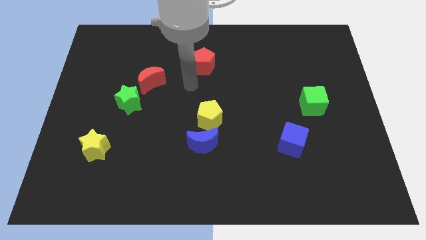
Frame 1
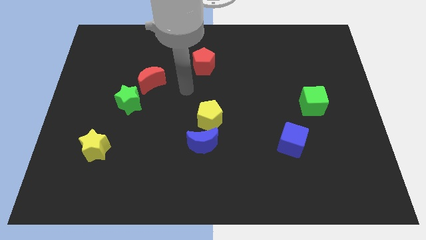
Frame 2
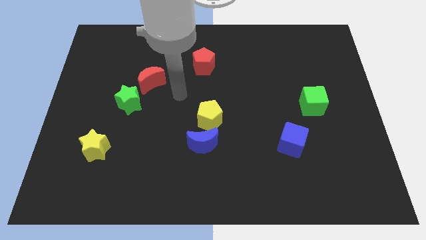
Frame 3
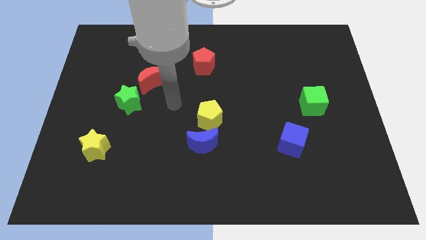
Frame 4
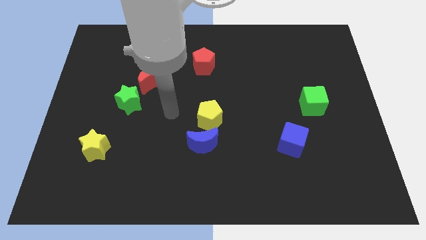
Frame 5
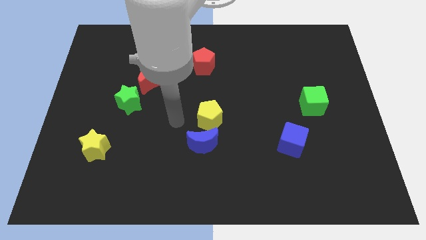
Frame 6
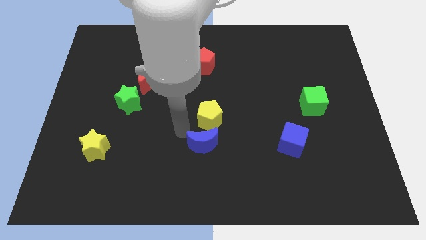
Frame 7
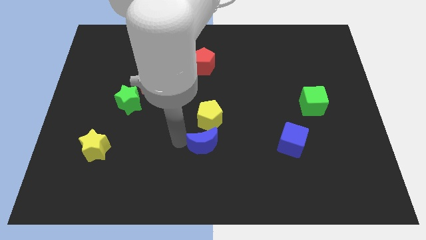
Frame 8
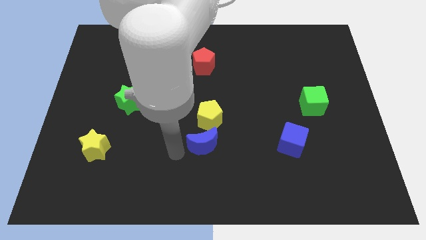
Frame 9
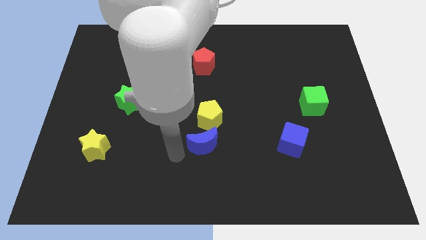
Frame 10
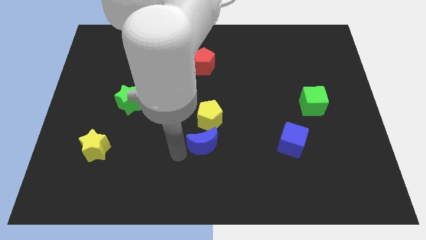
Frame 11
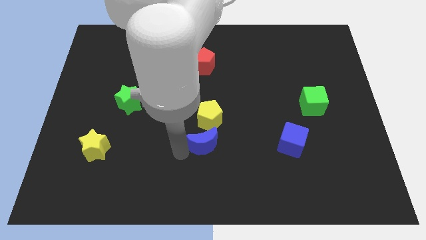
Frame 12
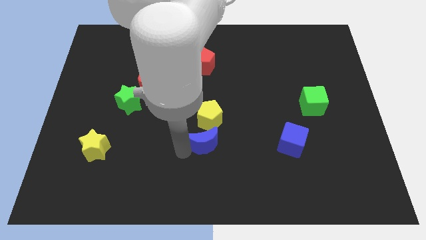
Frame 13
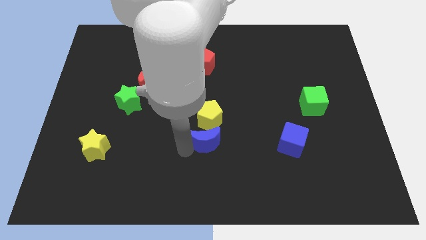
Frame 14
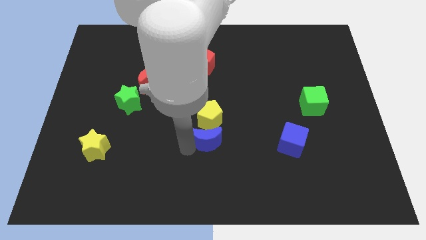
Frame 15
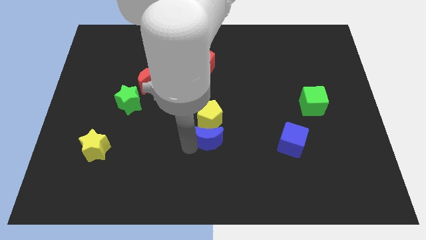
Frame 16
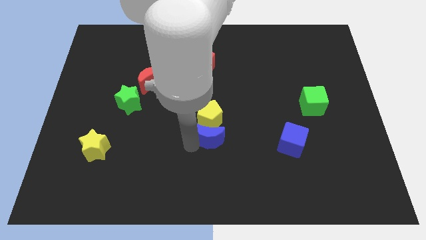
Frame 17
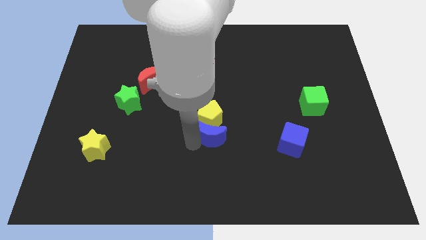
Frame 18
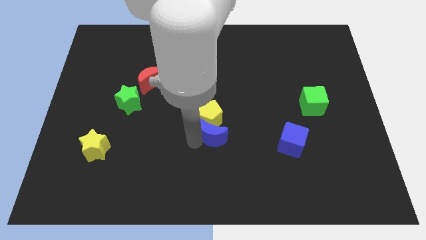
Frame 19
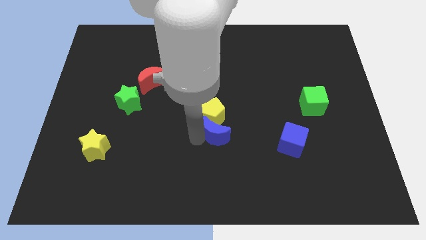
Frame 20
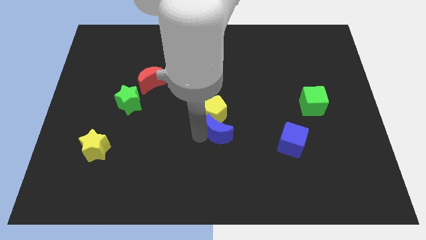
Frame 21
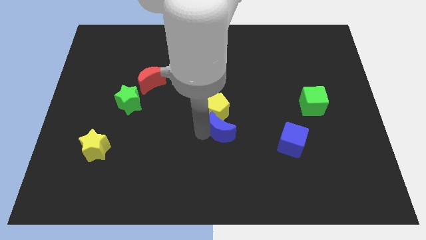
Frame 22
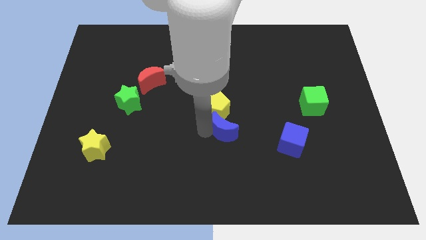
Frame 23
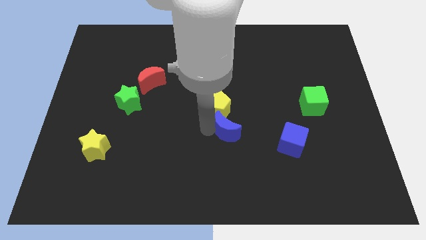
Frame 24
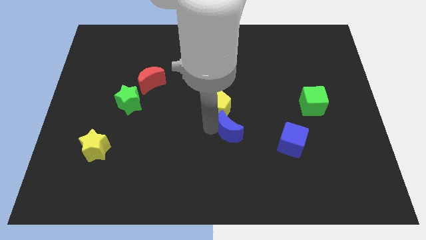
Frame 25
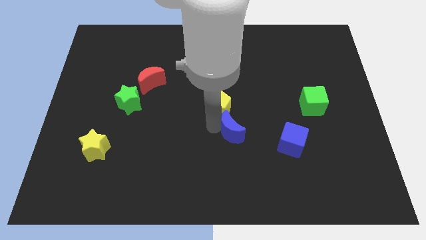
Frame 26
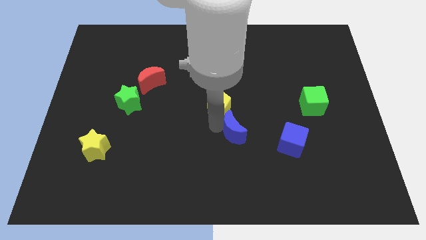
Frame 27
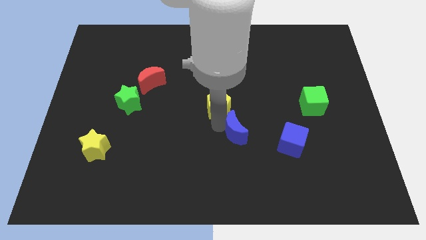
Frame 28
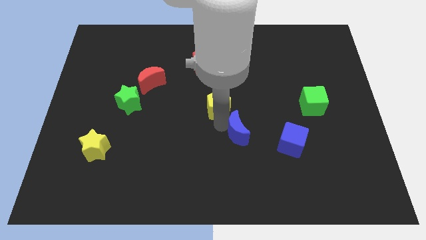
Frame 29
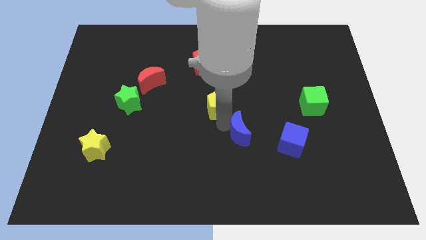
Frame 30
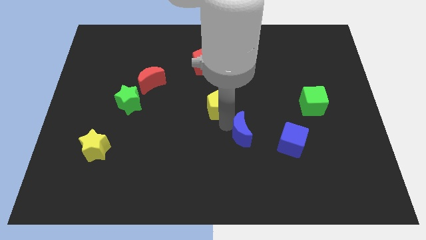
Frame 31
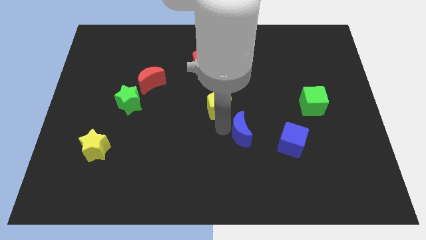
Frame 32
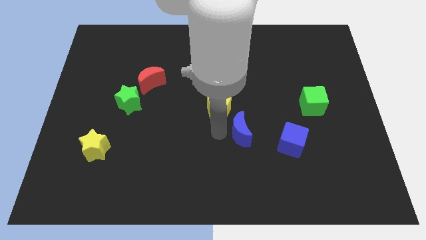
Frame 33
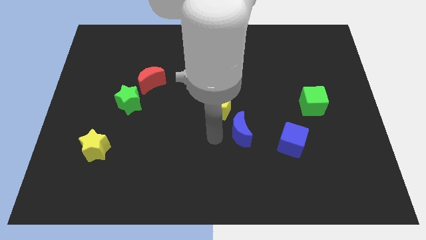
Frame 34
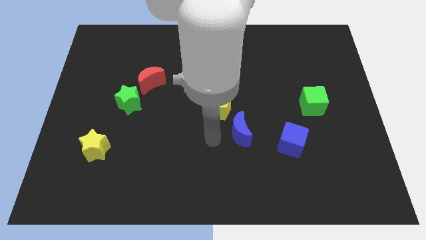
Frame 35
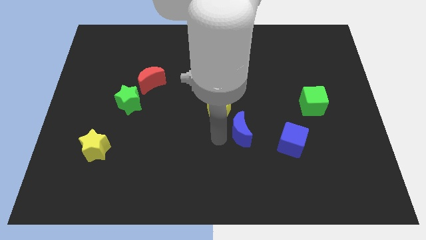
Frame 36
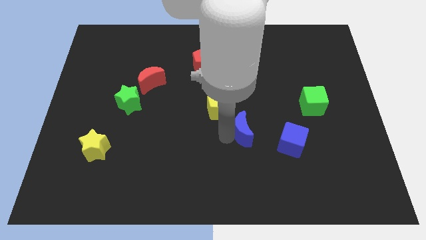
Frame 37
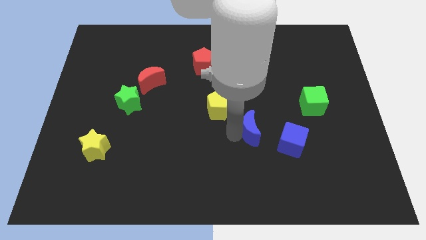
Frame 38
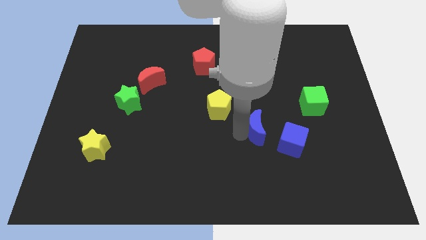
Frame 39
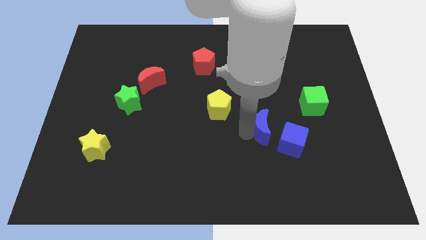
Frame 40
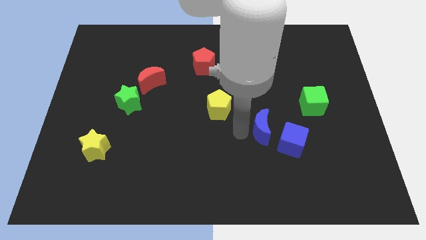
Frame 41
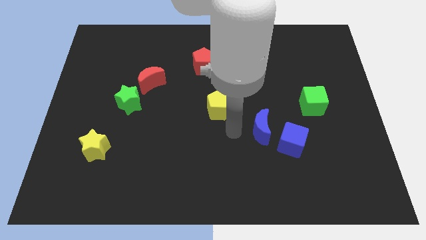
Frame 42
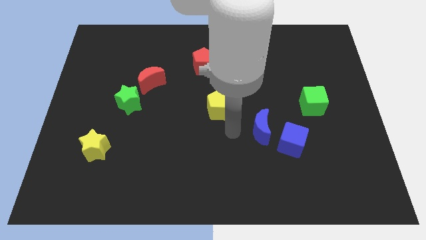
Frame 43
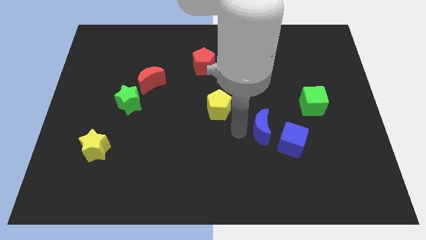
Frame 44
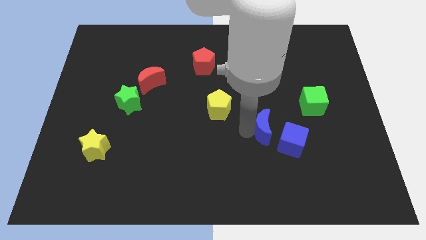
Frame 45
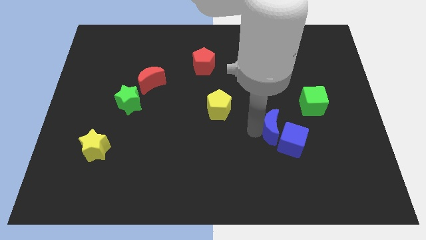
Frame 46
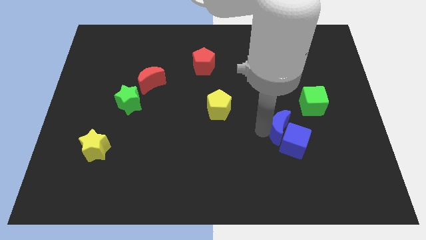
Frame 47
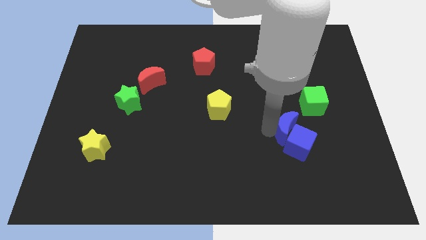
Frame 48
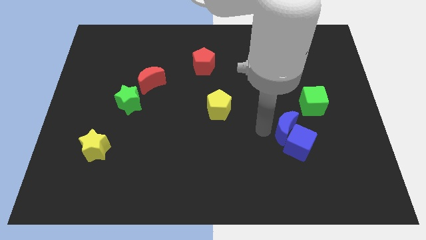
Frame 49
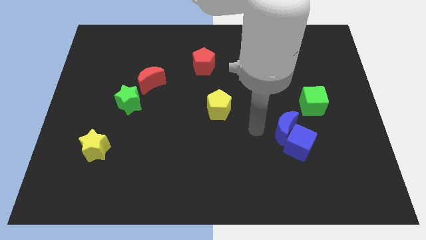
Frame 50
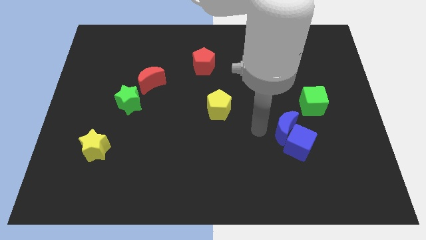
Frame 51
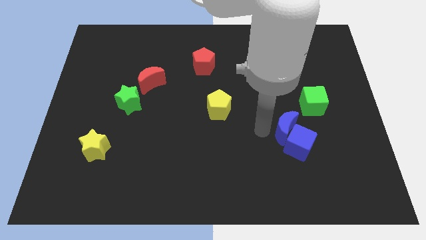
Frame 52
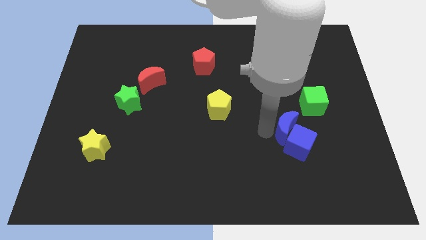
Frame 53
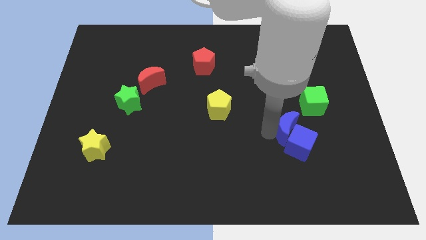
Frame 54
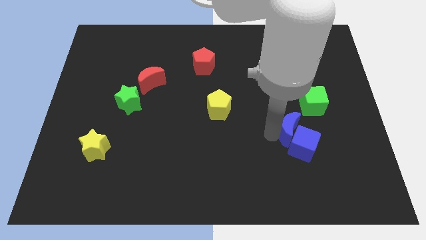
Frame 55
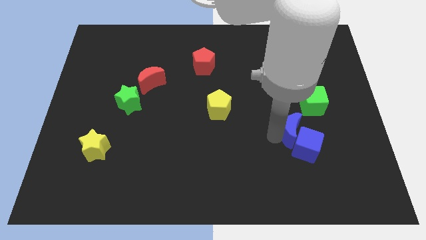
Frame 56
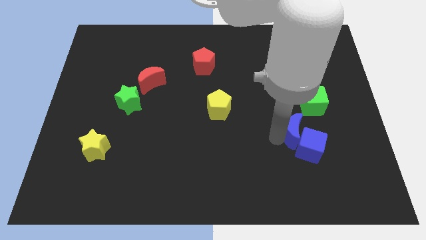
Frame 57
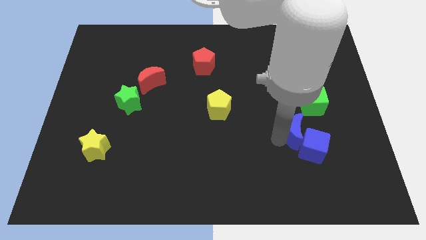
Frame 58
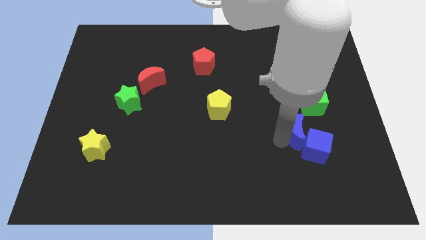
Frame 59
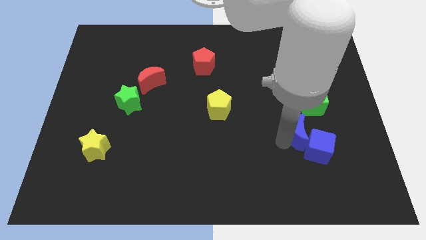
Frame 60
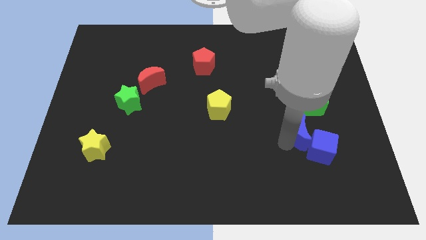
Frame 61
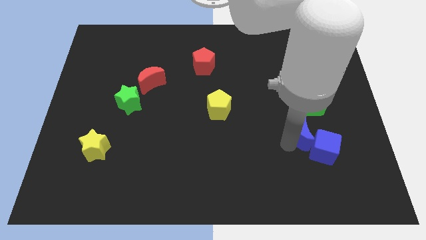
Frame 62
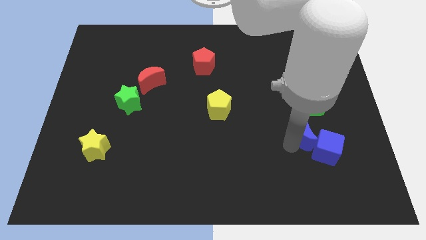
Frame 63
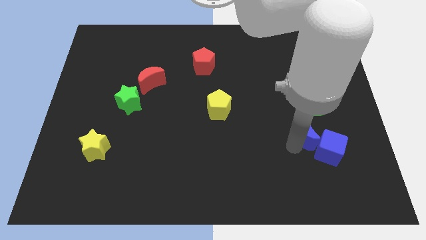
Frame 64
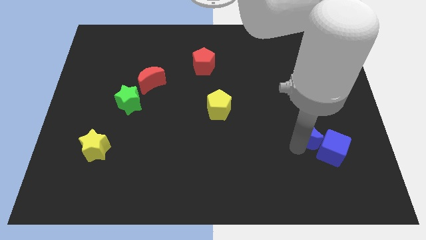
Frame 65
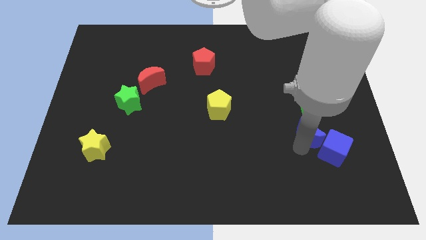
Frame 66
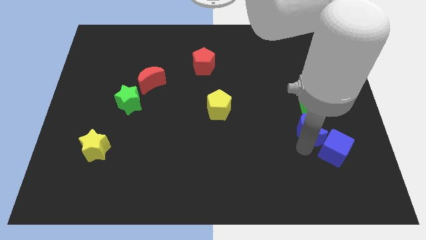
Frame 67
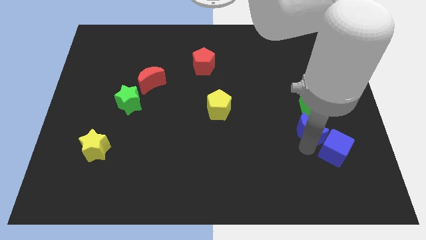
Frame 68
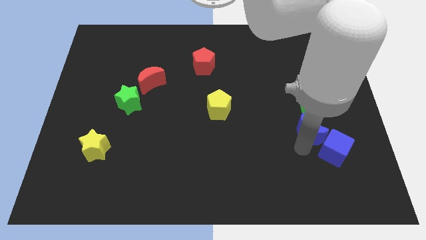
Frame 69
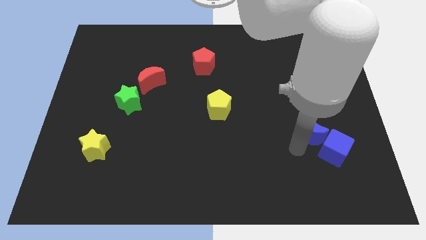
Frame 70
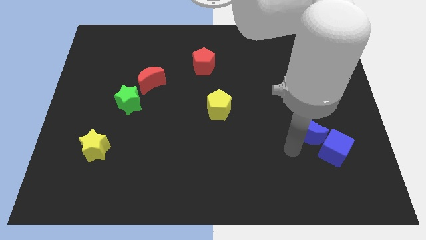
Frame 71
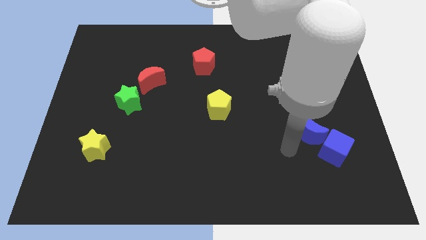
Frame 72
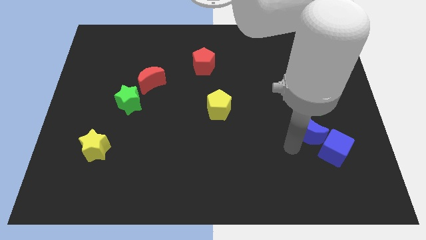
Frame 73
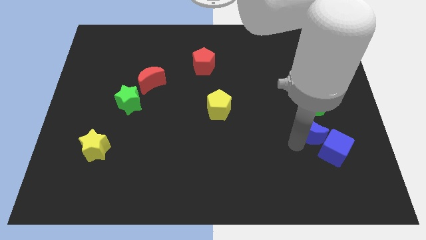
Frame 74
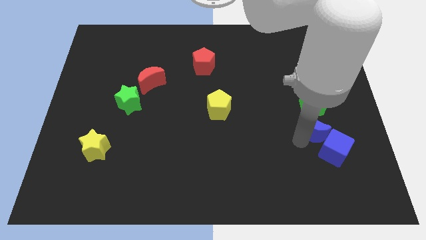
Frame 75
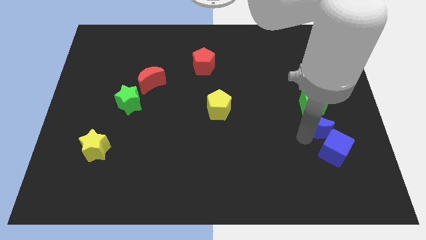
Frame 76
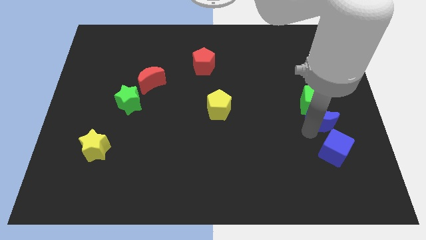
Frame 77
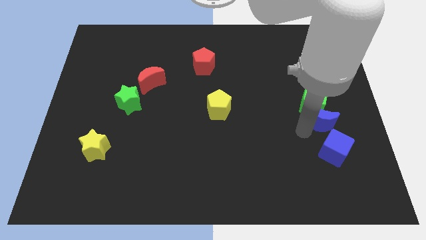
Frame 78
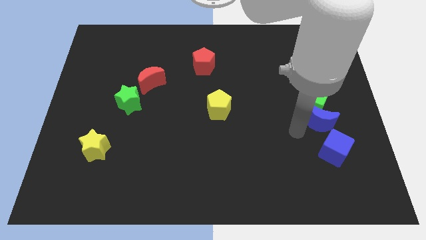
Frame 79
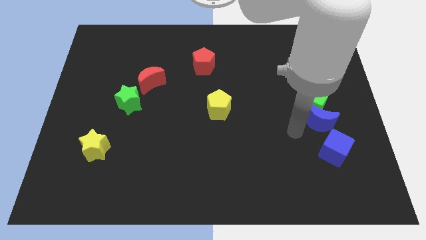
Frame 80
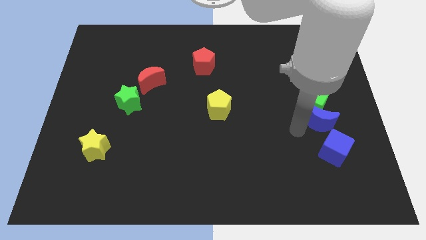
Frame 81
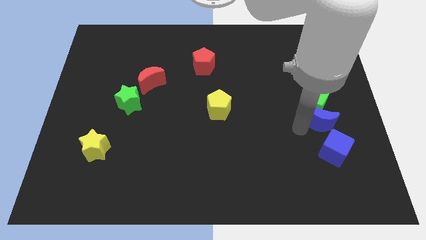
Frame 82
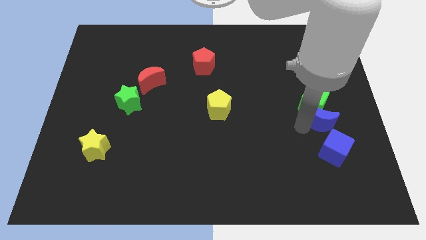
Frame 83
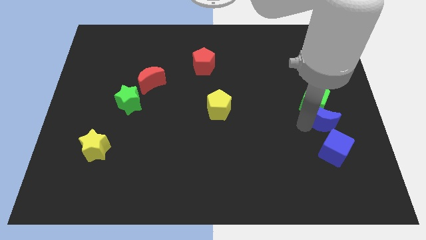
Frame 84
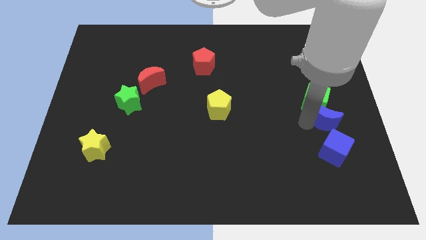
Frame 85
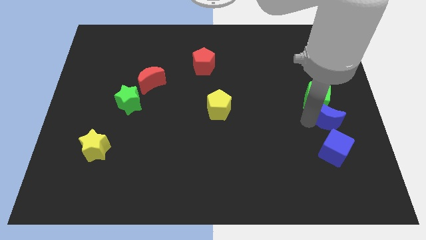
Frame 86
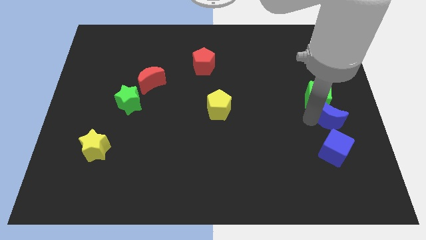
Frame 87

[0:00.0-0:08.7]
move the blue moon to the right side of the board
